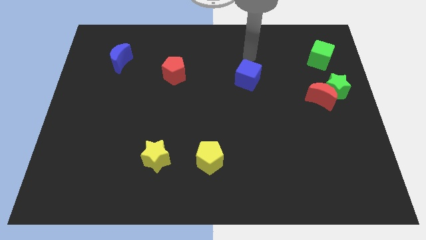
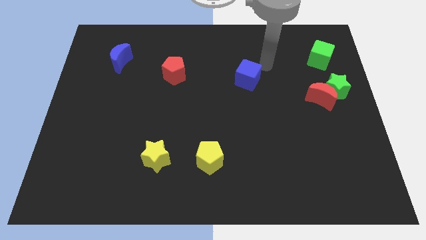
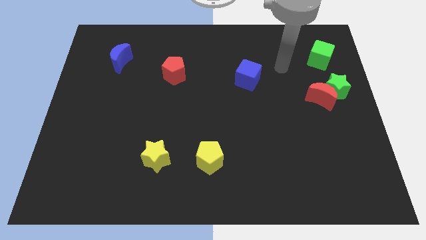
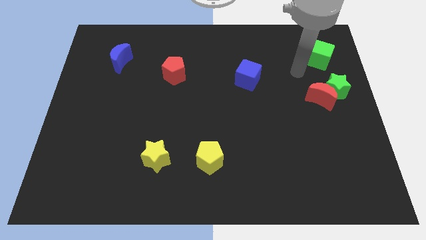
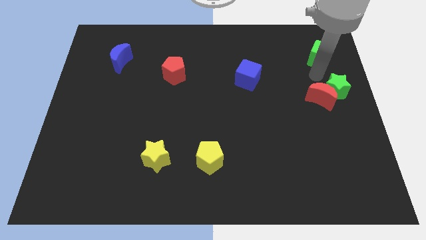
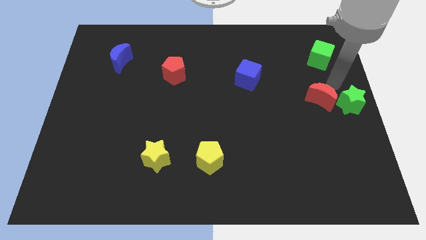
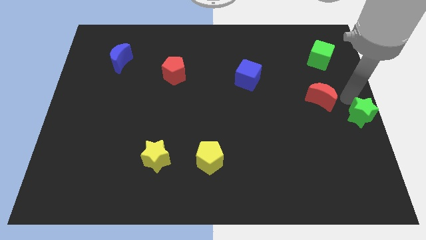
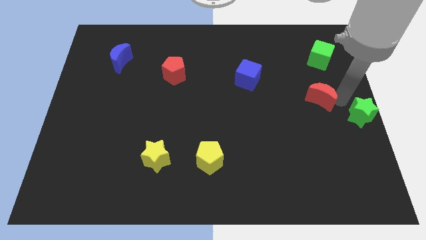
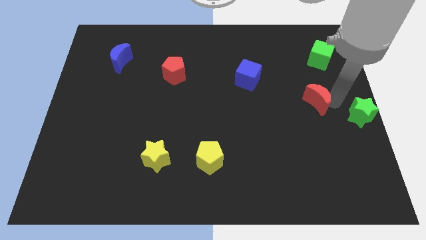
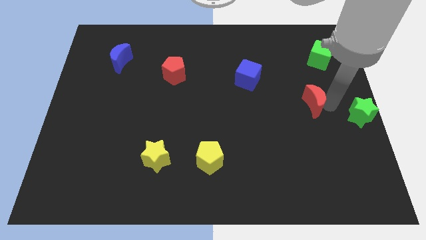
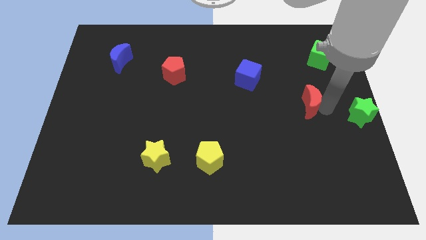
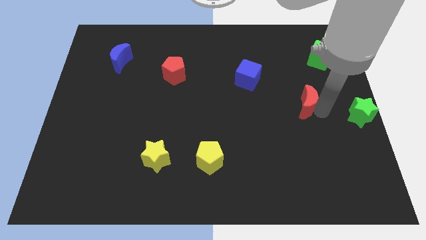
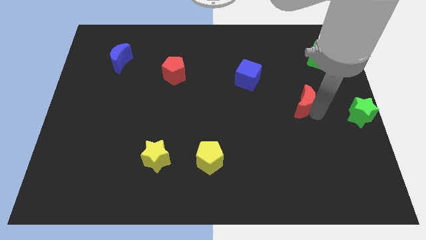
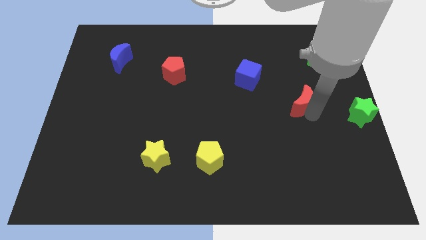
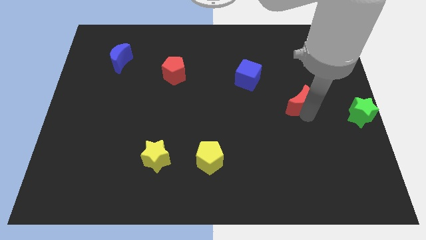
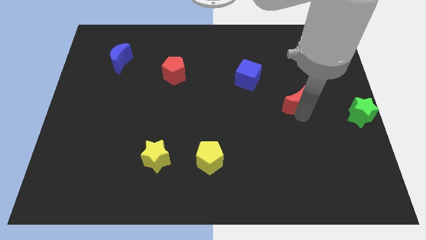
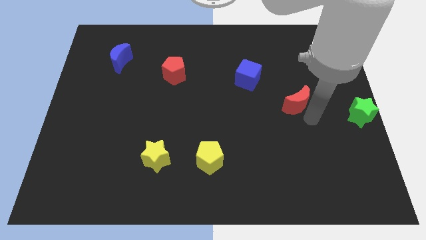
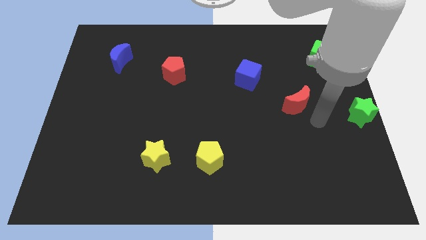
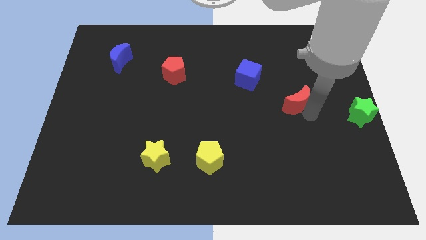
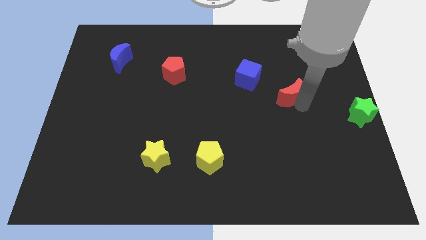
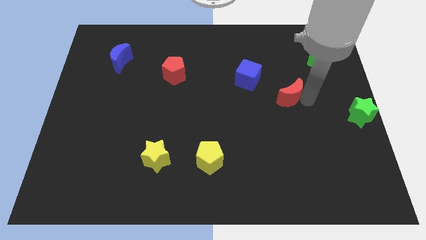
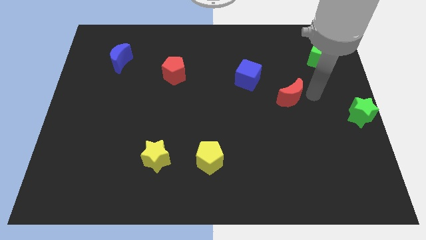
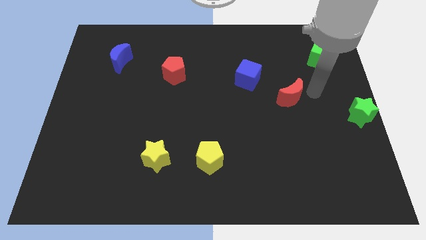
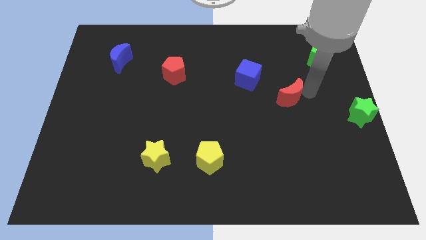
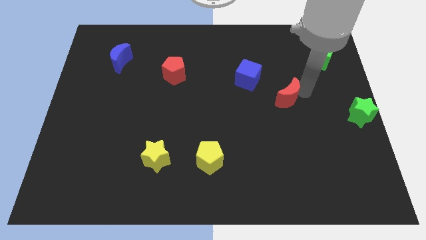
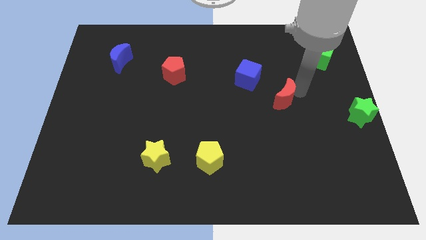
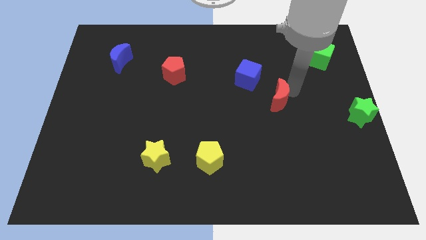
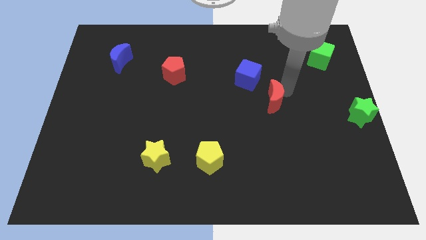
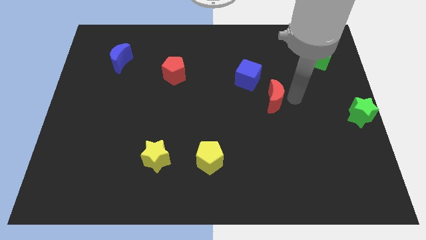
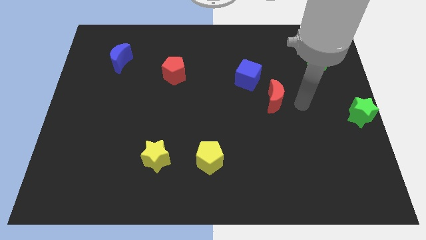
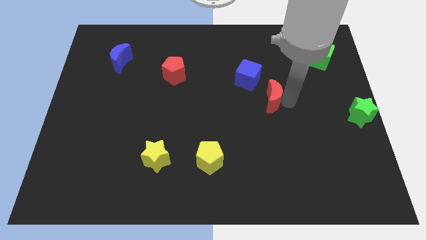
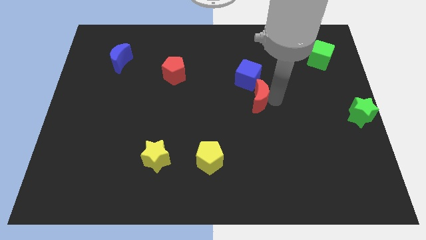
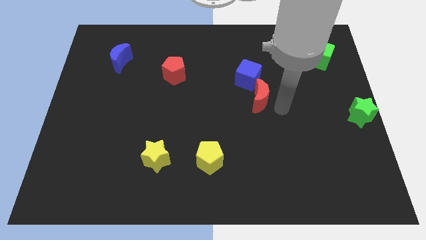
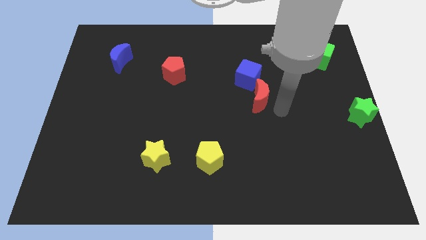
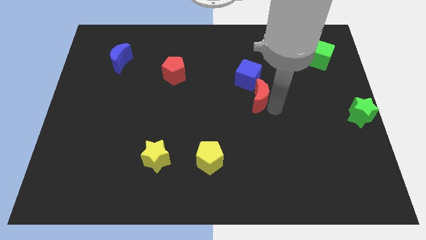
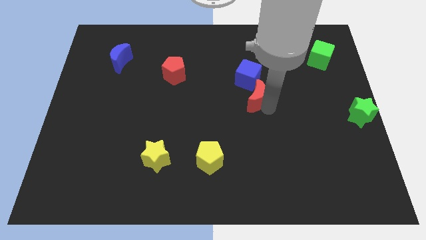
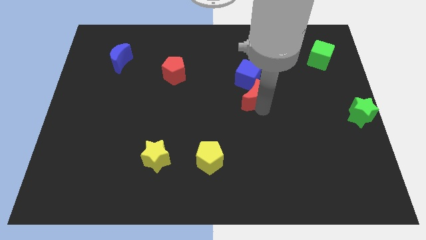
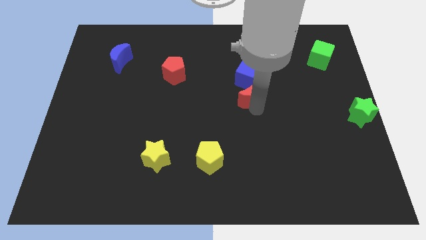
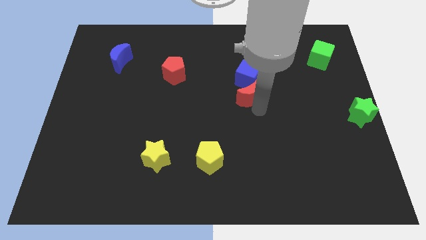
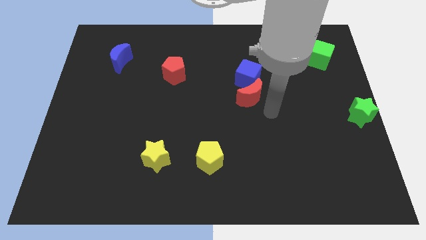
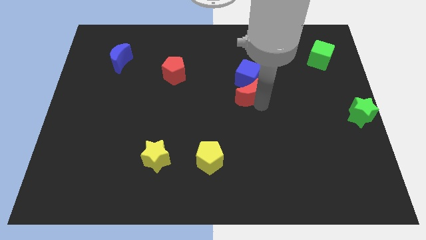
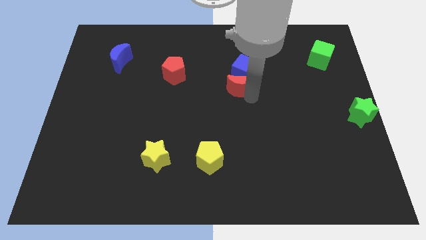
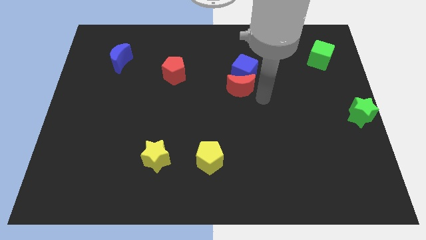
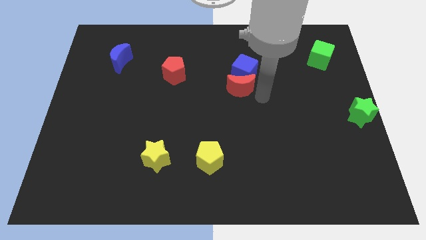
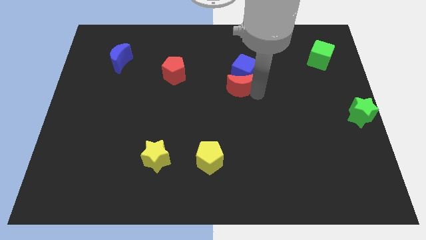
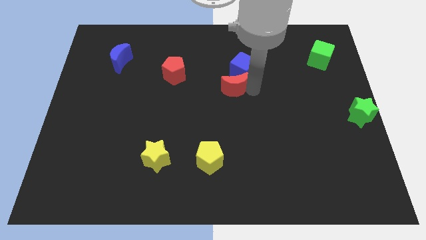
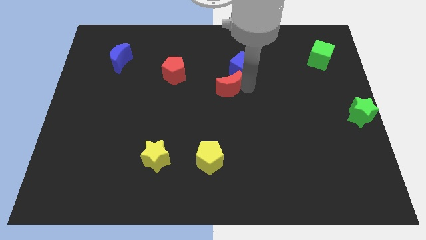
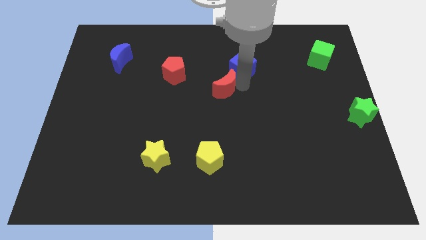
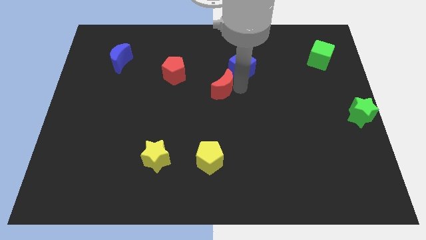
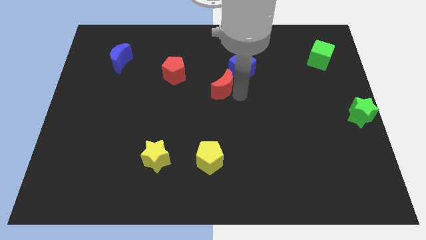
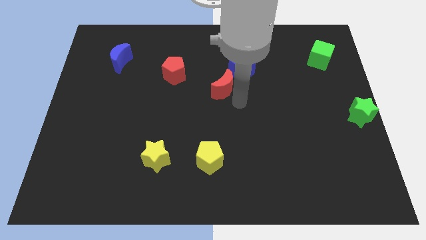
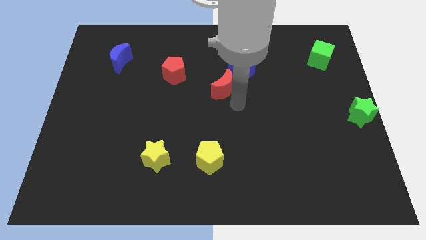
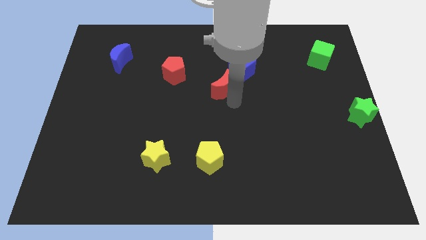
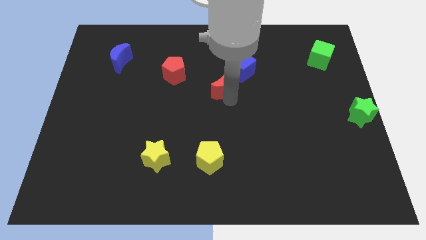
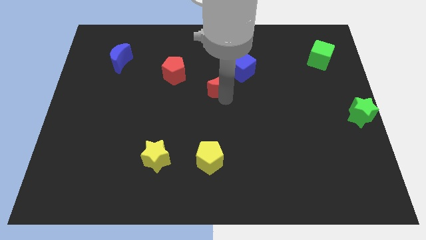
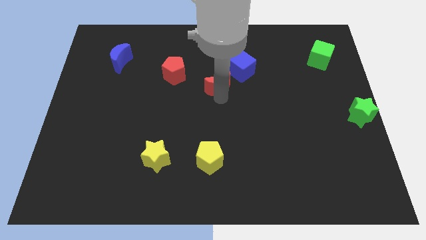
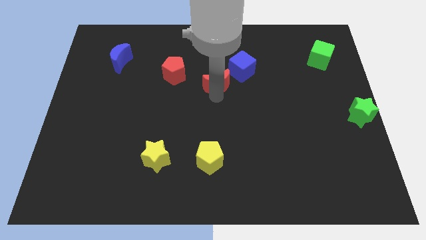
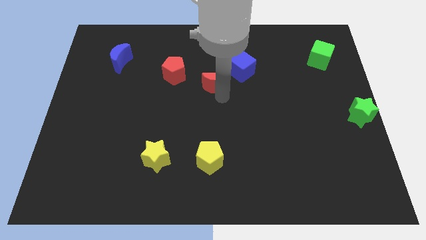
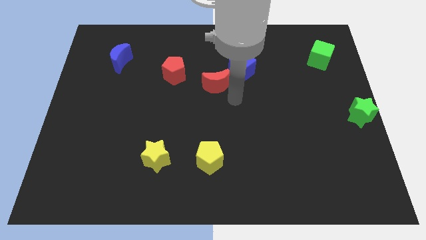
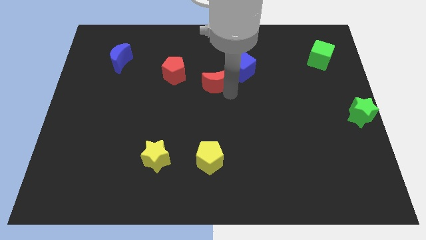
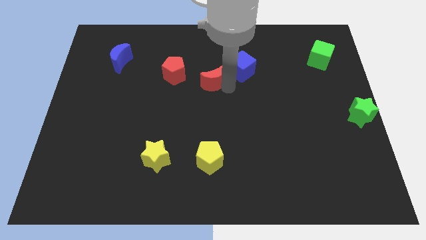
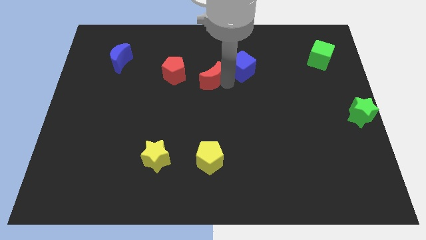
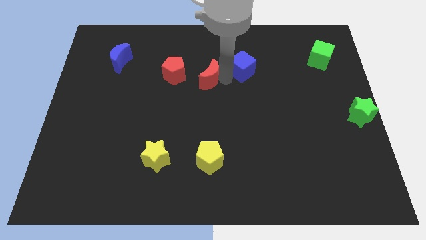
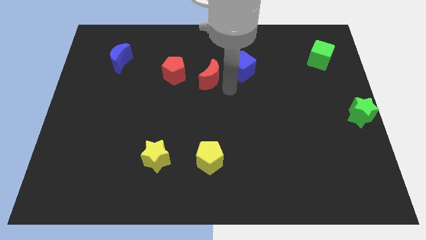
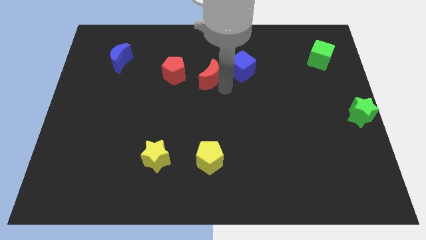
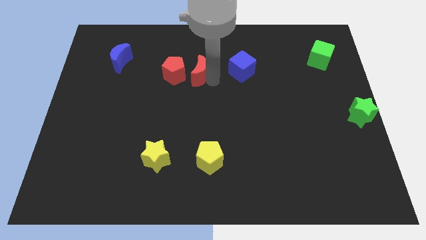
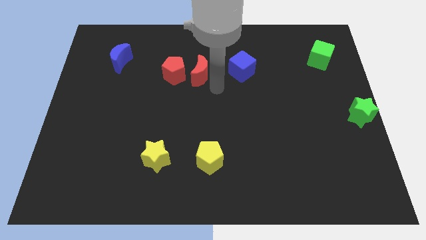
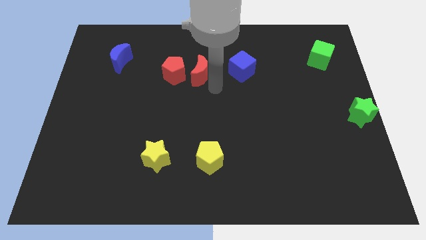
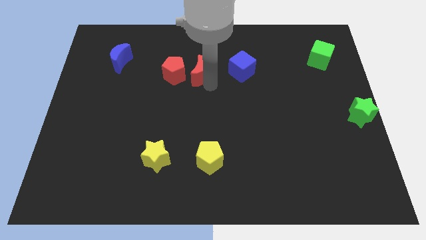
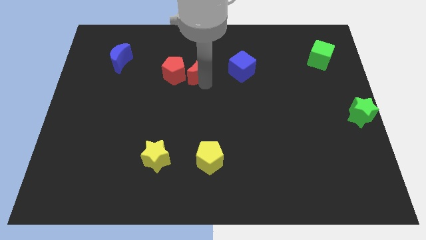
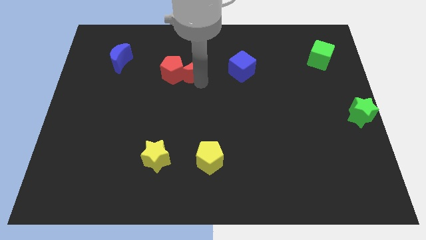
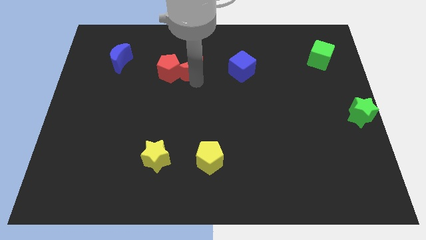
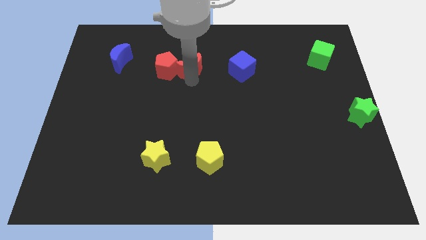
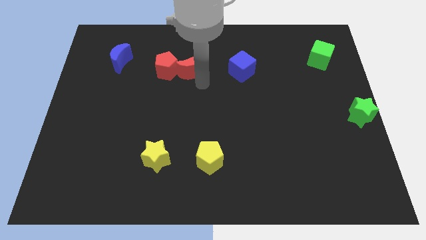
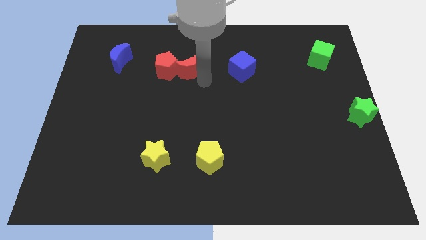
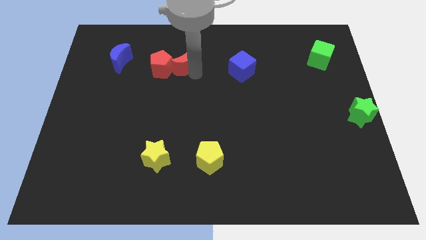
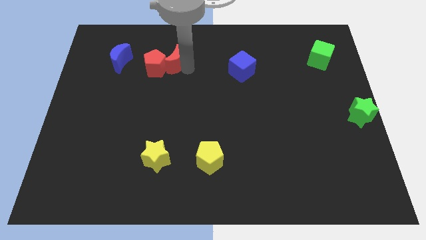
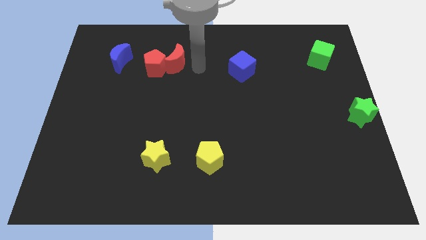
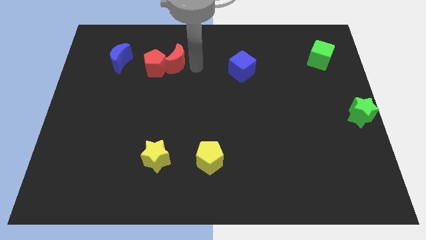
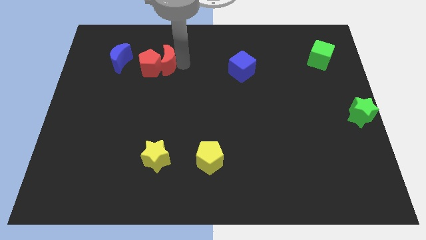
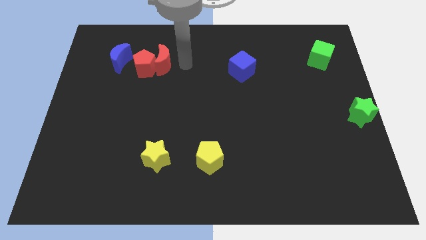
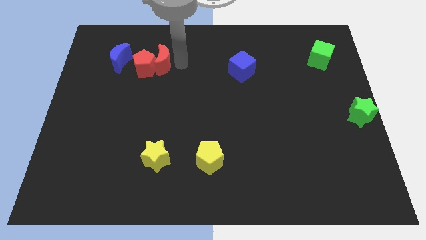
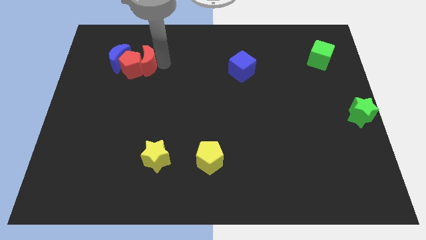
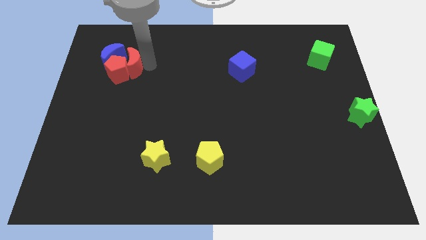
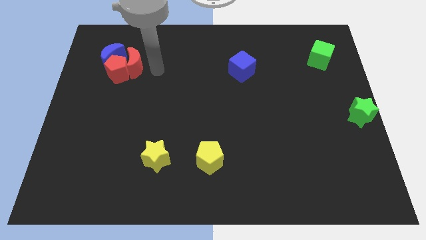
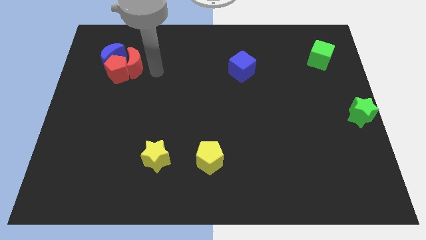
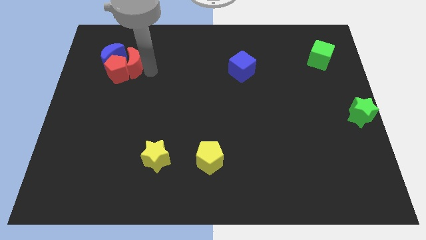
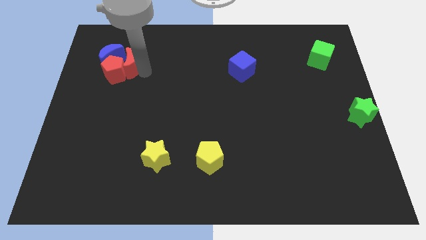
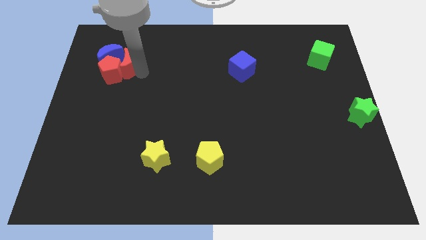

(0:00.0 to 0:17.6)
put the red moon towards the blue moon
